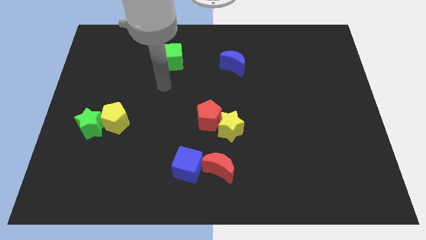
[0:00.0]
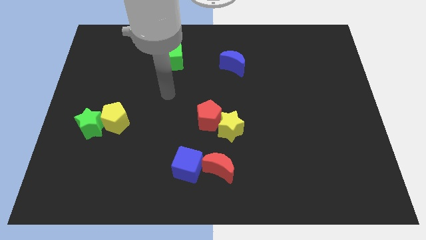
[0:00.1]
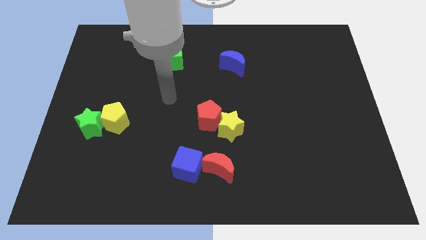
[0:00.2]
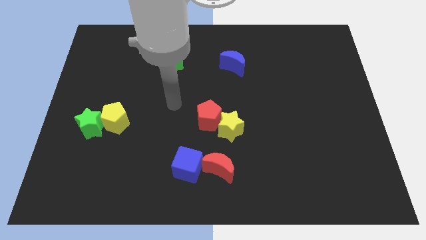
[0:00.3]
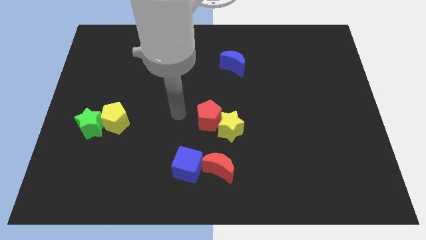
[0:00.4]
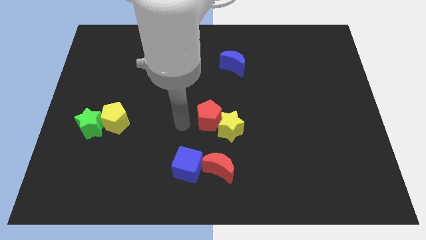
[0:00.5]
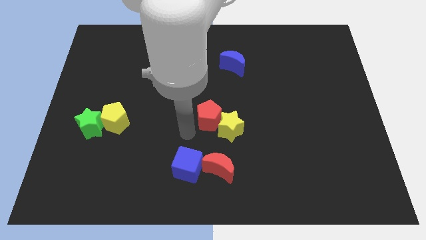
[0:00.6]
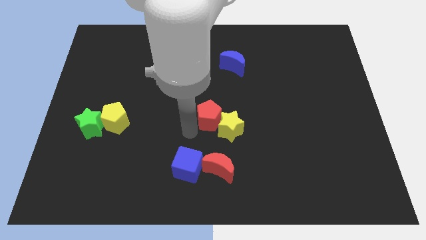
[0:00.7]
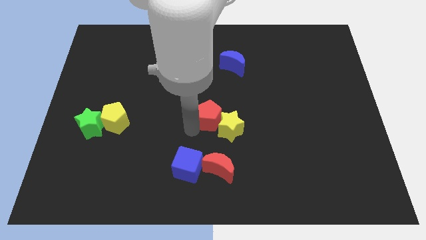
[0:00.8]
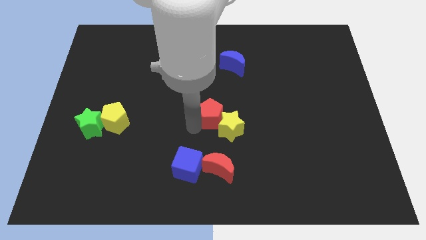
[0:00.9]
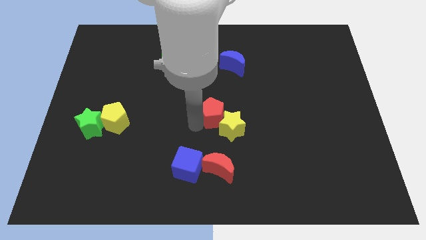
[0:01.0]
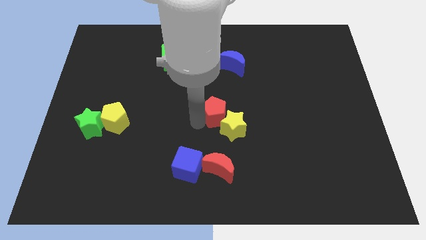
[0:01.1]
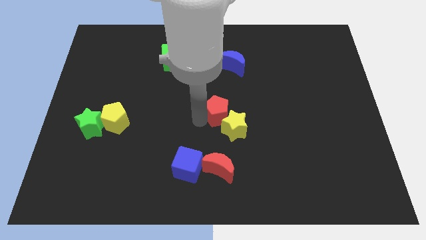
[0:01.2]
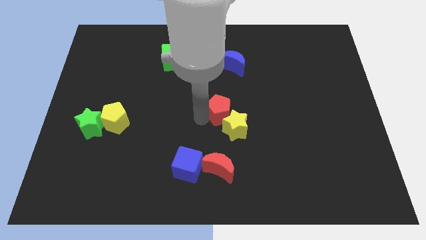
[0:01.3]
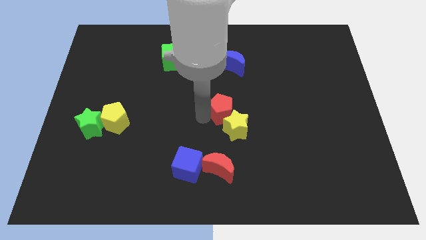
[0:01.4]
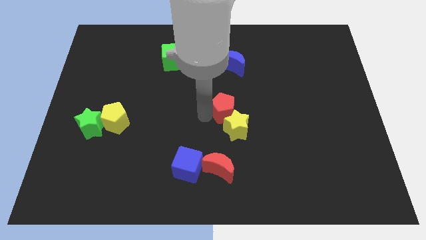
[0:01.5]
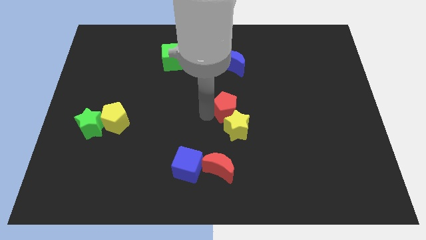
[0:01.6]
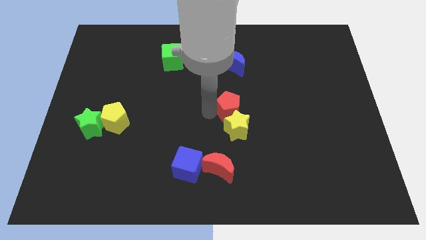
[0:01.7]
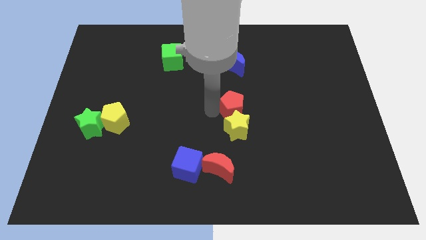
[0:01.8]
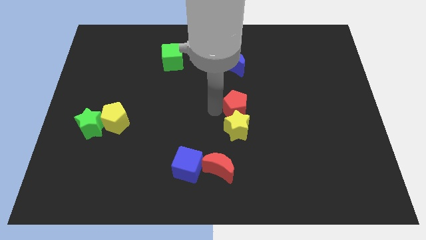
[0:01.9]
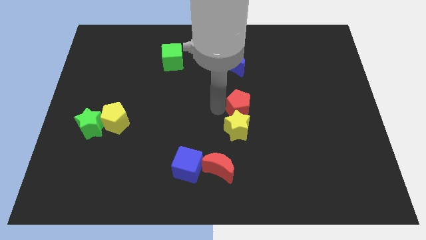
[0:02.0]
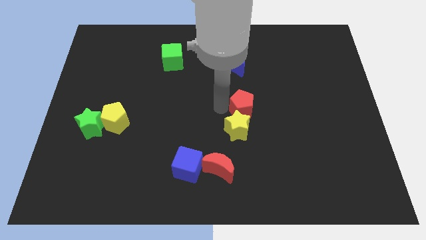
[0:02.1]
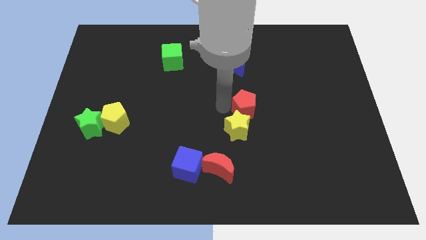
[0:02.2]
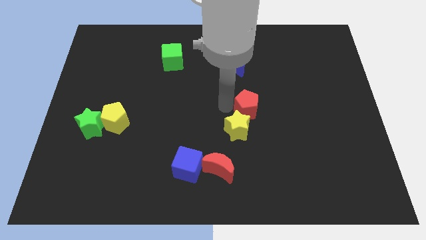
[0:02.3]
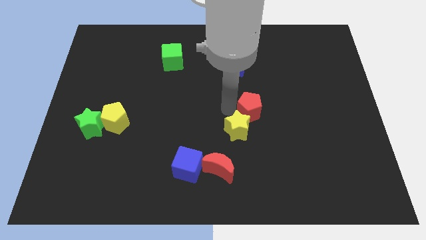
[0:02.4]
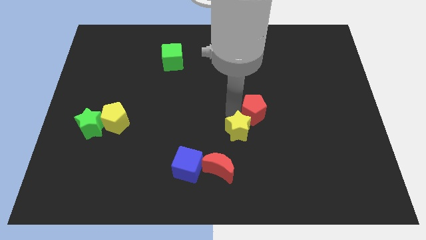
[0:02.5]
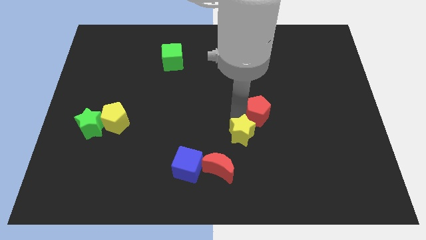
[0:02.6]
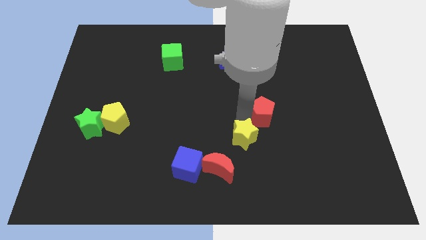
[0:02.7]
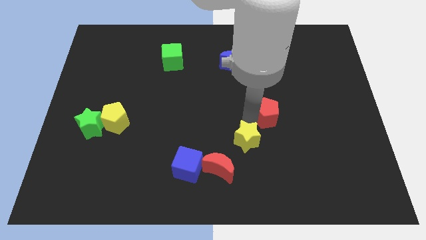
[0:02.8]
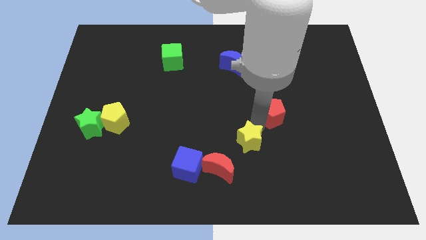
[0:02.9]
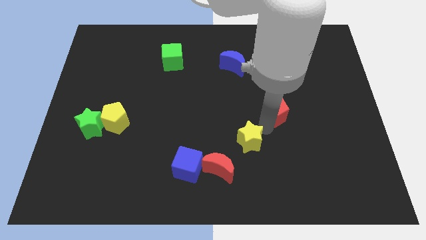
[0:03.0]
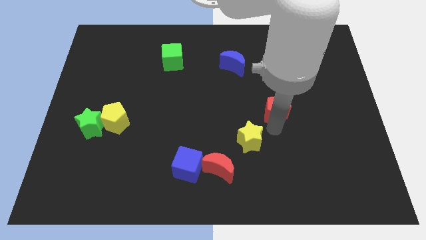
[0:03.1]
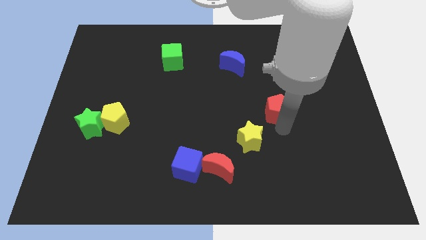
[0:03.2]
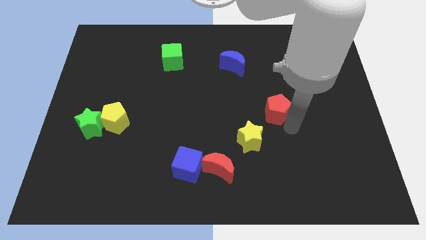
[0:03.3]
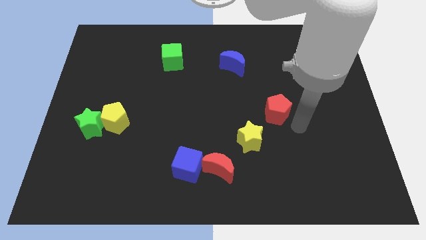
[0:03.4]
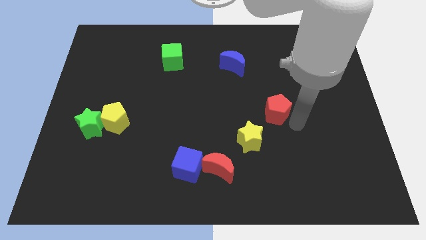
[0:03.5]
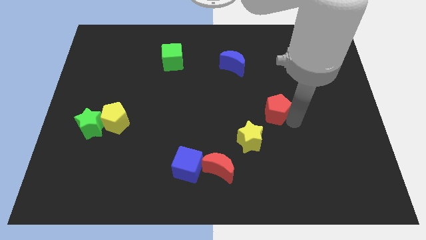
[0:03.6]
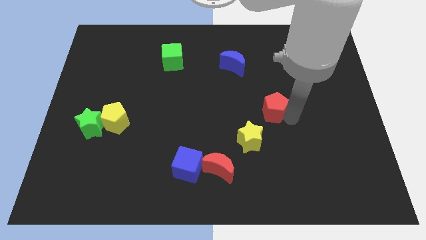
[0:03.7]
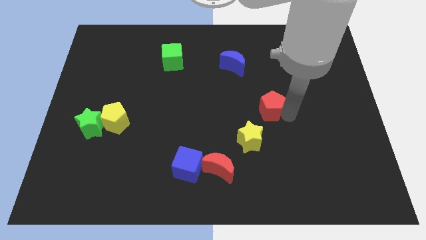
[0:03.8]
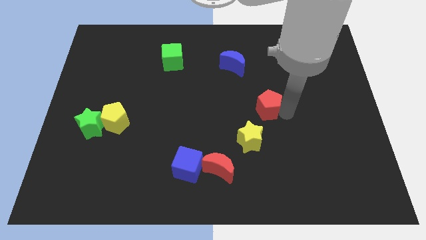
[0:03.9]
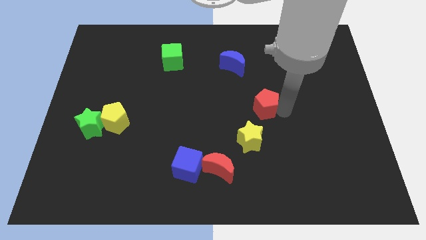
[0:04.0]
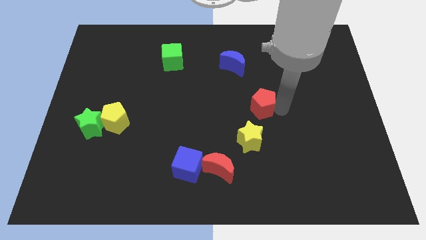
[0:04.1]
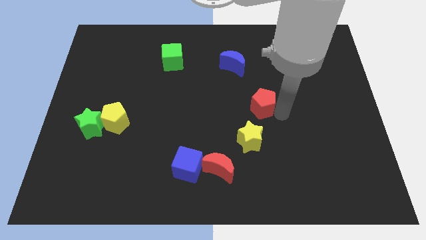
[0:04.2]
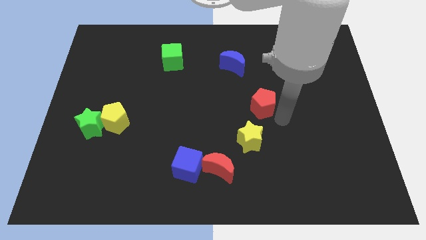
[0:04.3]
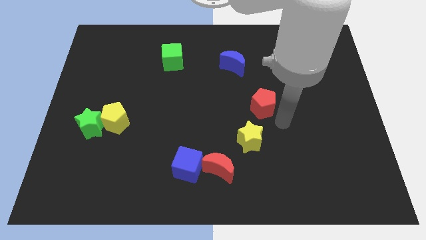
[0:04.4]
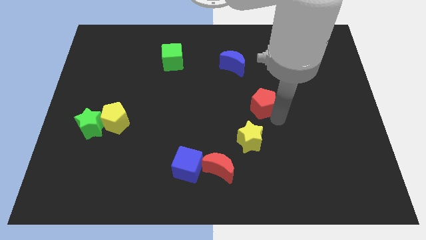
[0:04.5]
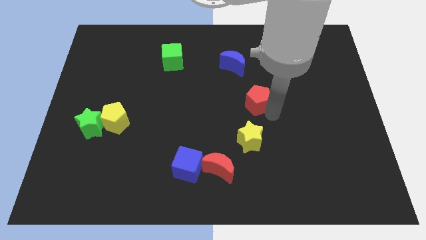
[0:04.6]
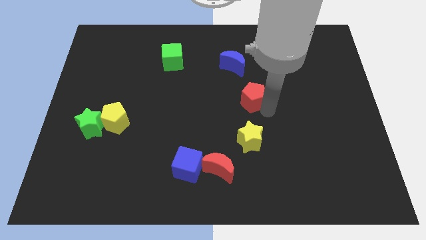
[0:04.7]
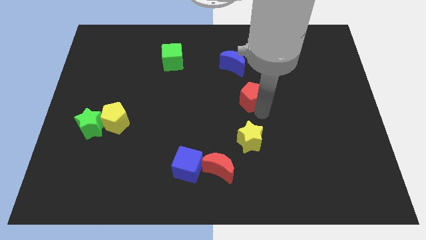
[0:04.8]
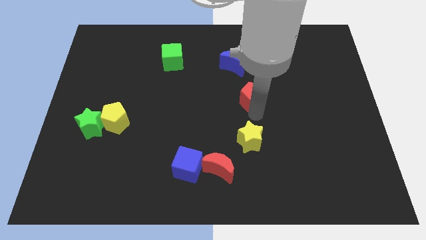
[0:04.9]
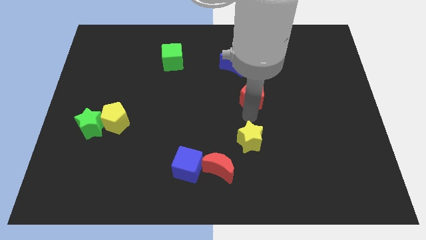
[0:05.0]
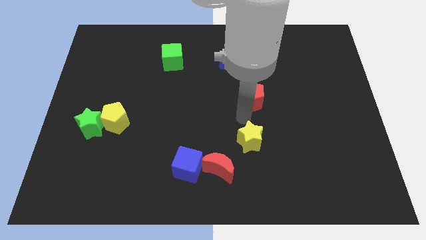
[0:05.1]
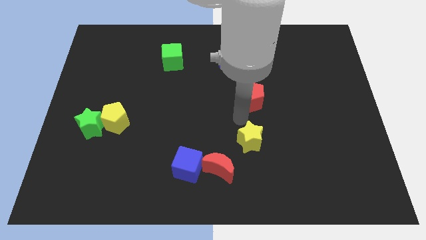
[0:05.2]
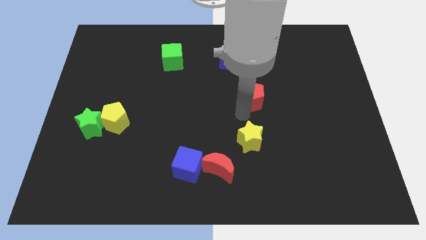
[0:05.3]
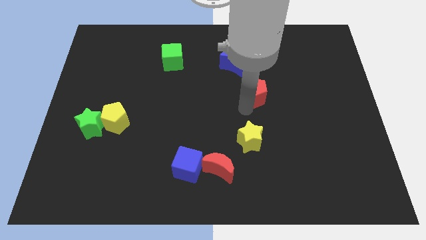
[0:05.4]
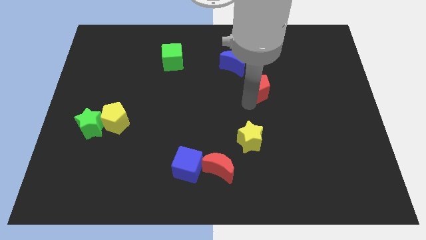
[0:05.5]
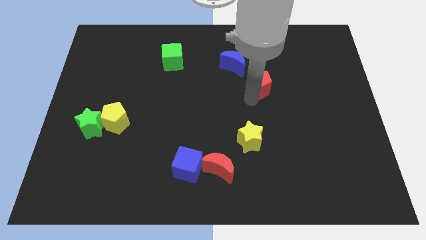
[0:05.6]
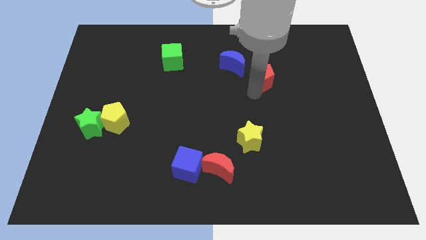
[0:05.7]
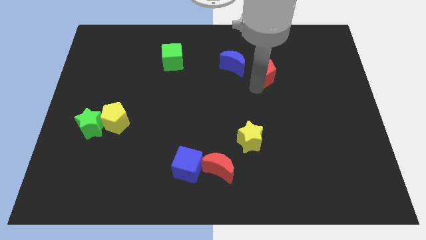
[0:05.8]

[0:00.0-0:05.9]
move the red pentagon right of the blue moon

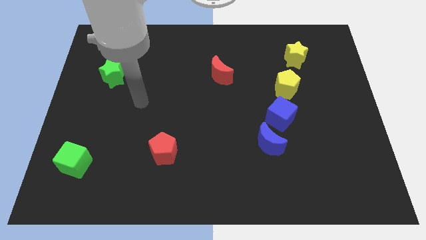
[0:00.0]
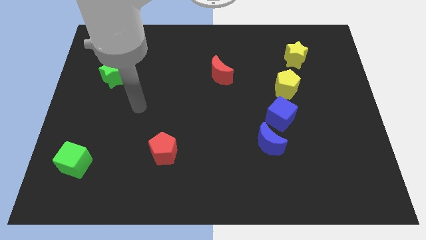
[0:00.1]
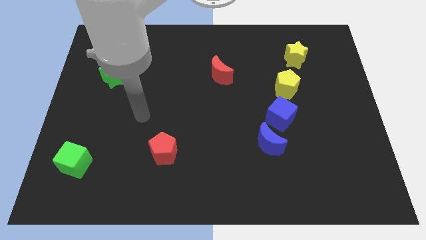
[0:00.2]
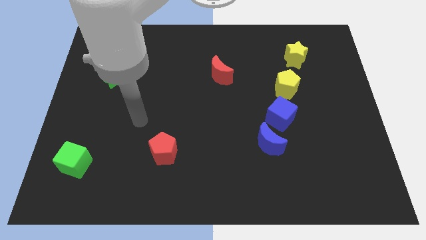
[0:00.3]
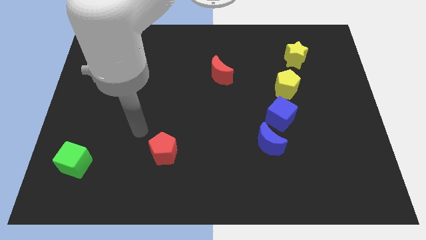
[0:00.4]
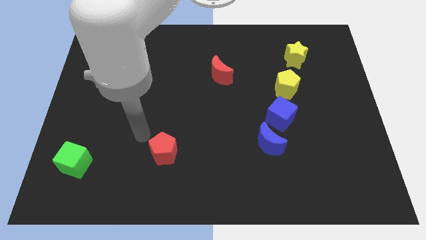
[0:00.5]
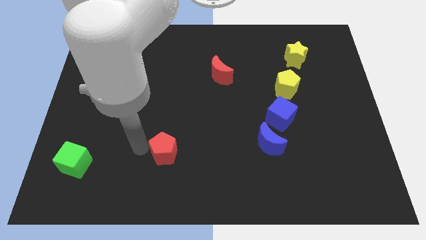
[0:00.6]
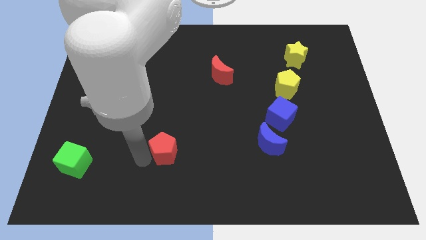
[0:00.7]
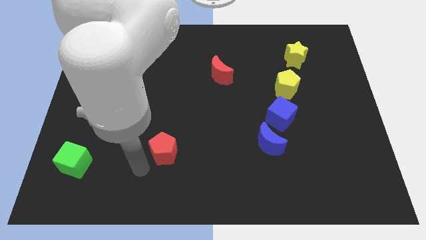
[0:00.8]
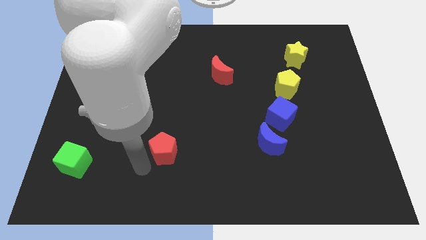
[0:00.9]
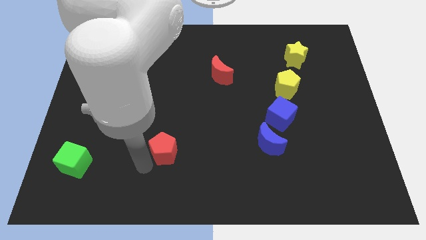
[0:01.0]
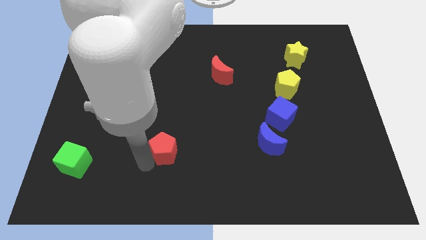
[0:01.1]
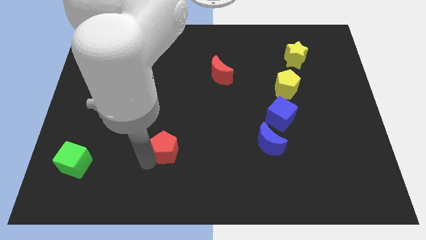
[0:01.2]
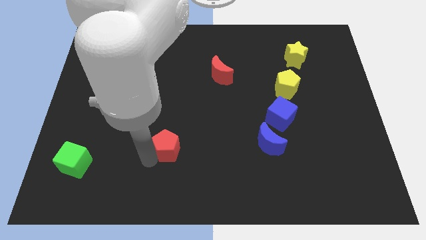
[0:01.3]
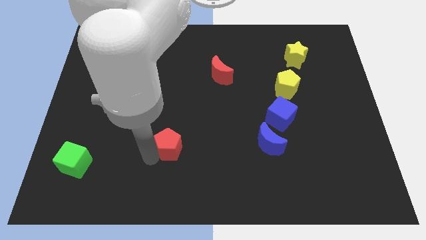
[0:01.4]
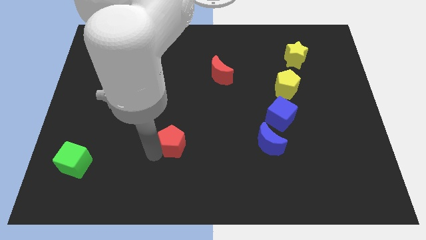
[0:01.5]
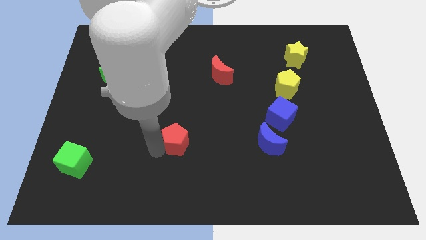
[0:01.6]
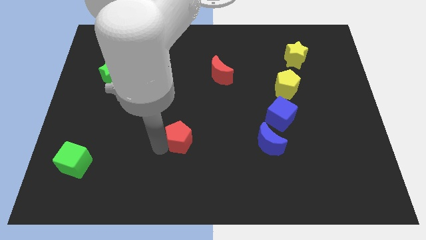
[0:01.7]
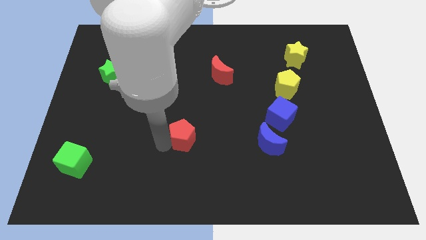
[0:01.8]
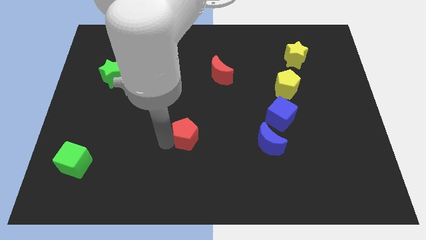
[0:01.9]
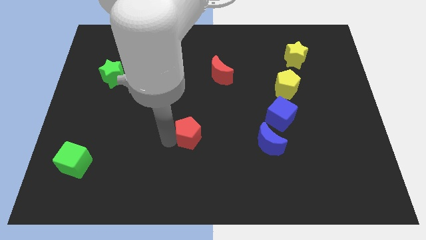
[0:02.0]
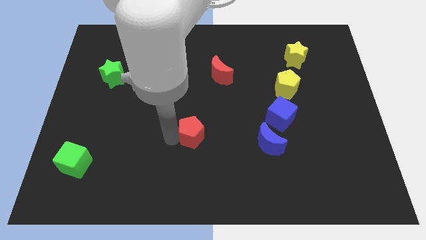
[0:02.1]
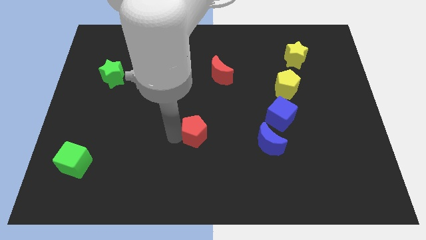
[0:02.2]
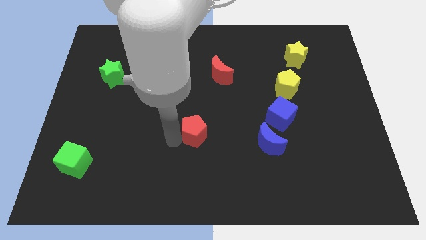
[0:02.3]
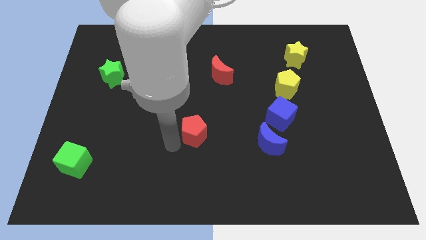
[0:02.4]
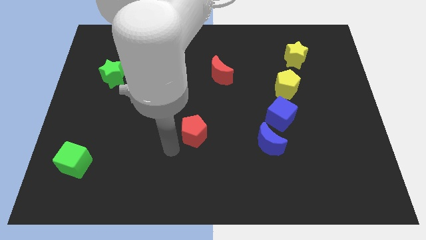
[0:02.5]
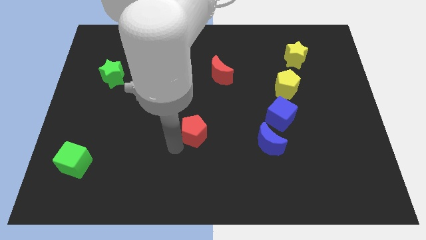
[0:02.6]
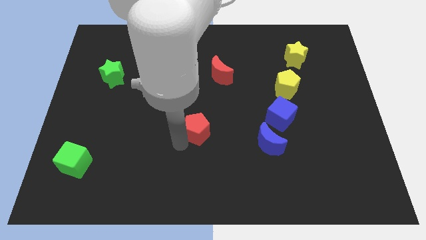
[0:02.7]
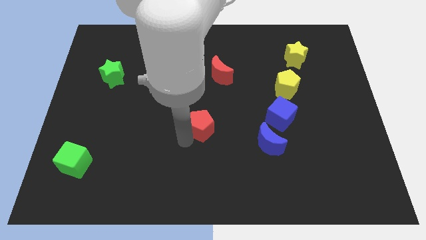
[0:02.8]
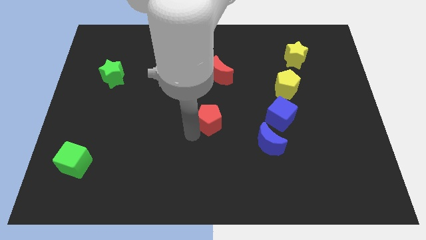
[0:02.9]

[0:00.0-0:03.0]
move the red pentagon just left of the blue cube
